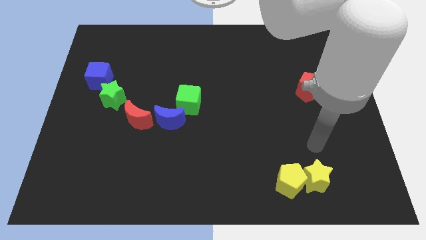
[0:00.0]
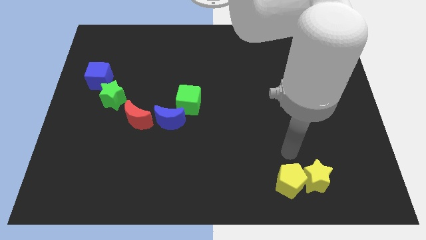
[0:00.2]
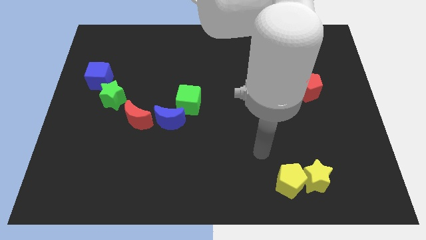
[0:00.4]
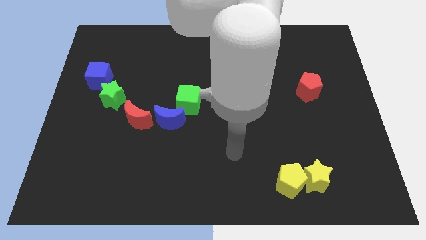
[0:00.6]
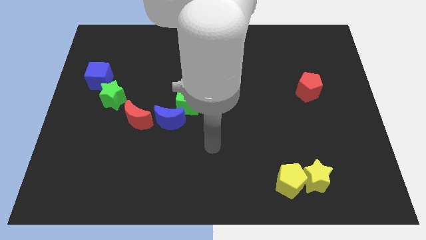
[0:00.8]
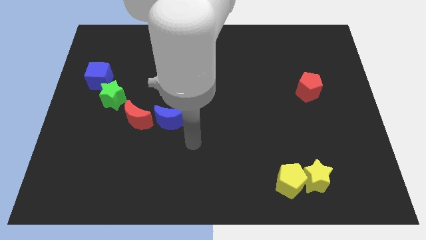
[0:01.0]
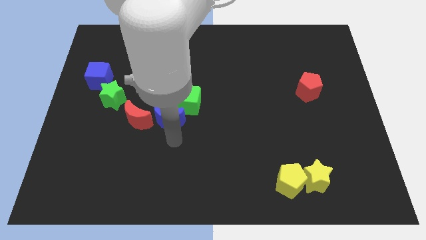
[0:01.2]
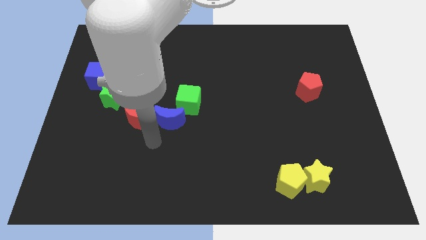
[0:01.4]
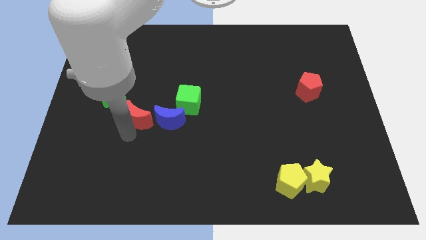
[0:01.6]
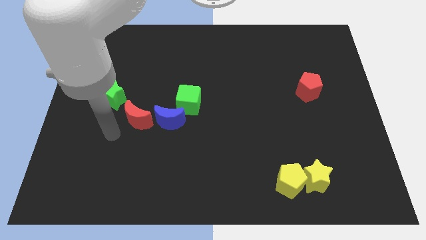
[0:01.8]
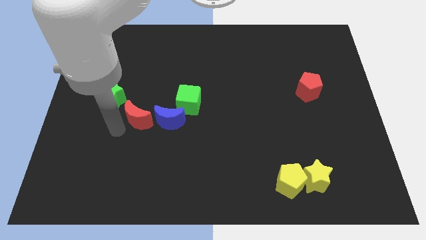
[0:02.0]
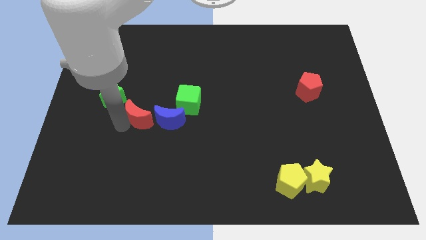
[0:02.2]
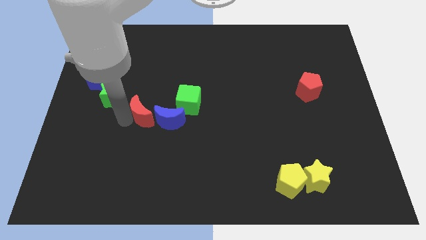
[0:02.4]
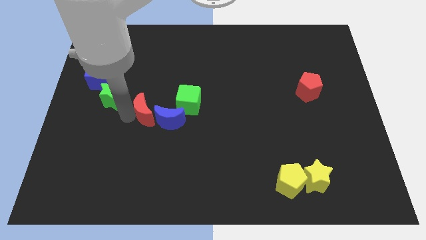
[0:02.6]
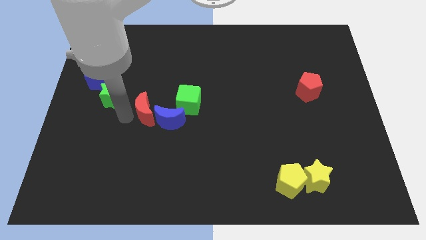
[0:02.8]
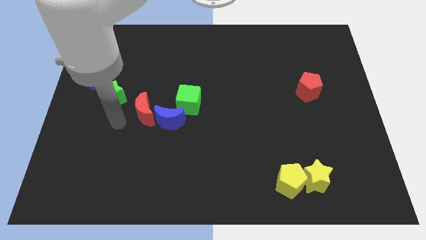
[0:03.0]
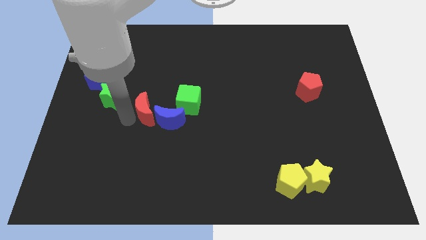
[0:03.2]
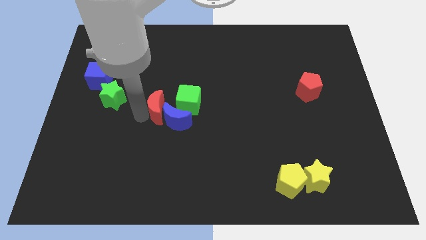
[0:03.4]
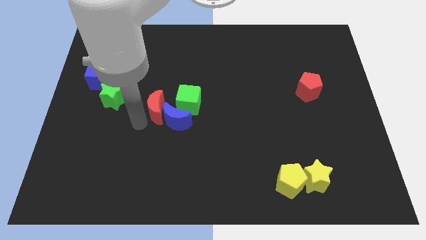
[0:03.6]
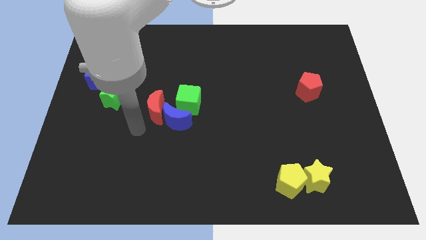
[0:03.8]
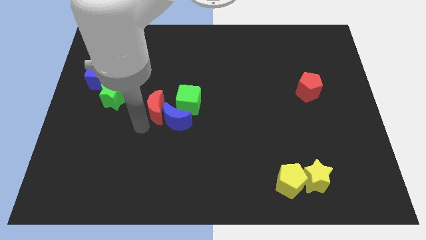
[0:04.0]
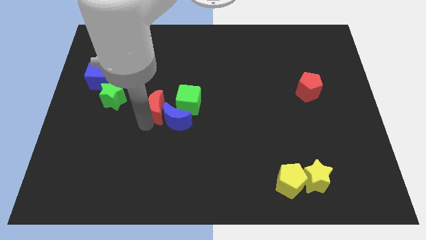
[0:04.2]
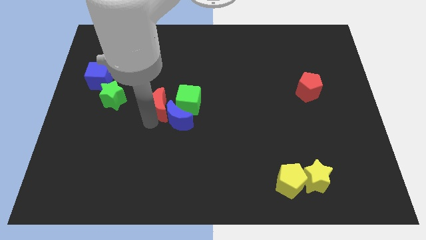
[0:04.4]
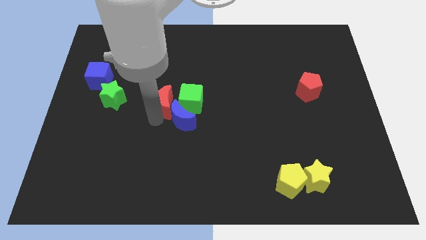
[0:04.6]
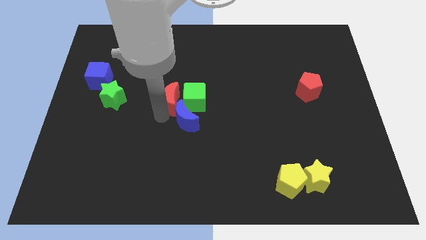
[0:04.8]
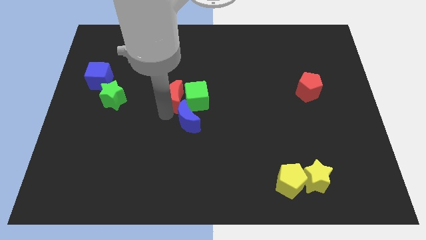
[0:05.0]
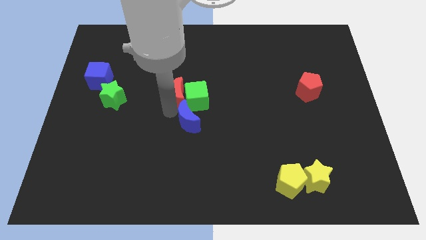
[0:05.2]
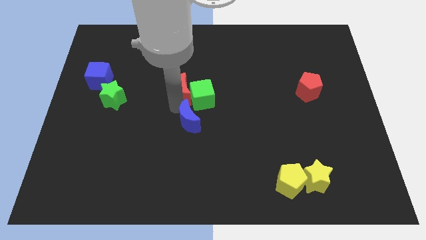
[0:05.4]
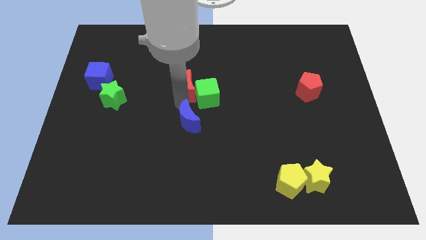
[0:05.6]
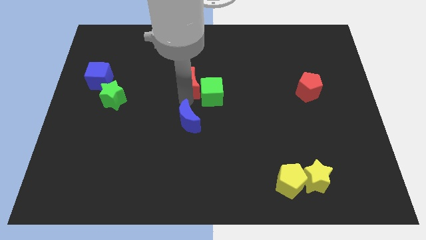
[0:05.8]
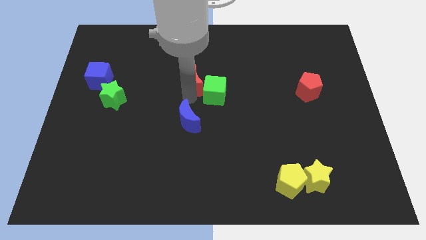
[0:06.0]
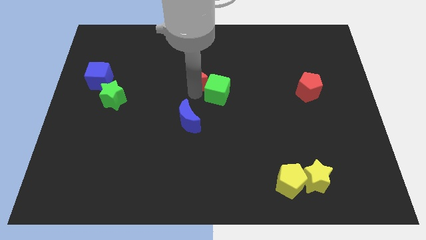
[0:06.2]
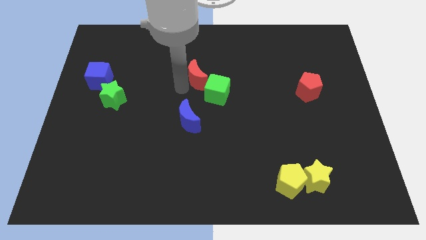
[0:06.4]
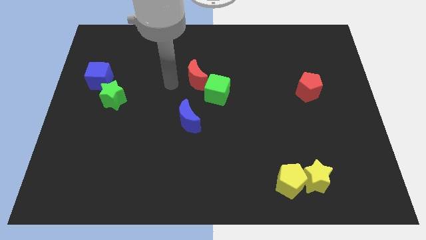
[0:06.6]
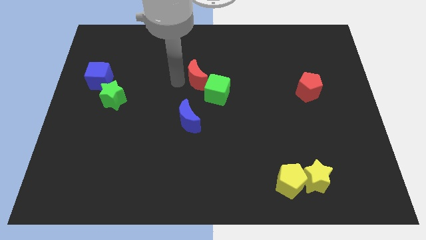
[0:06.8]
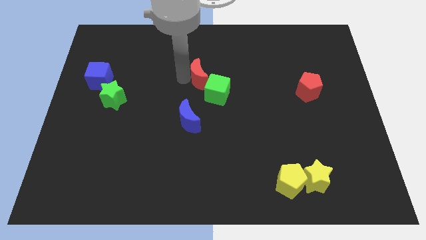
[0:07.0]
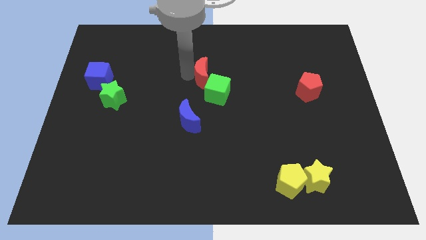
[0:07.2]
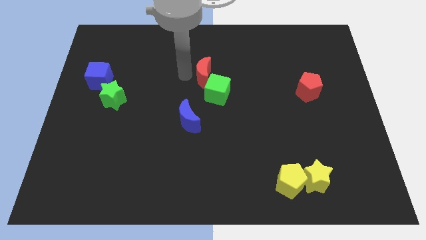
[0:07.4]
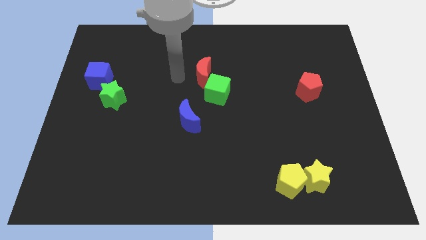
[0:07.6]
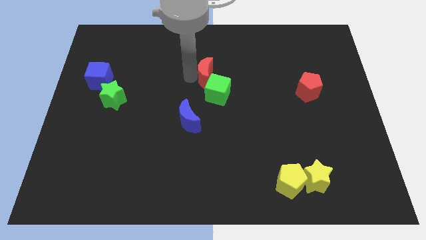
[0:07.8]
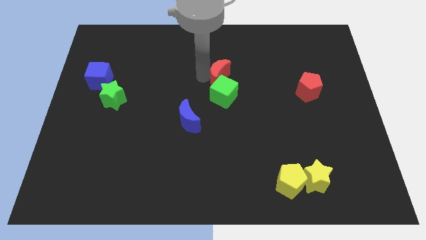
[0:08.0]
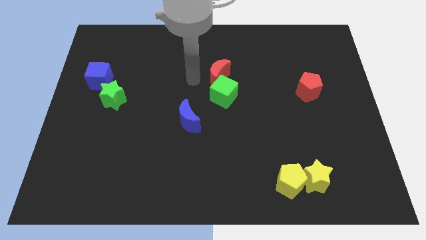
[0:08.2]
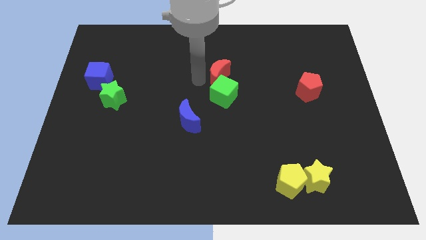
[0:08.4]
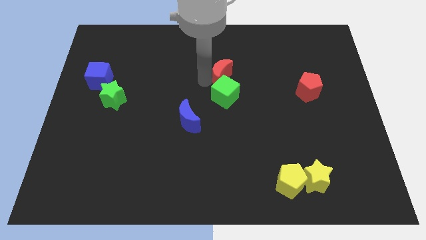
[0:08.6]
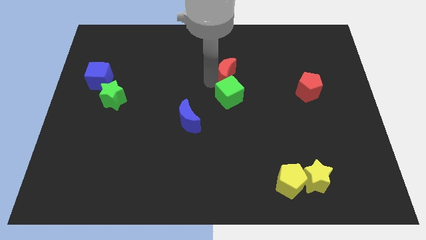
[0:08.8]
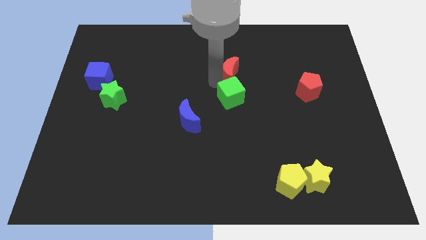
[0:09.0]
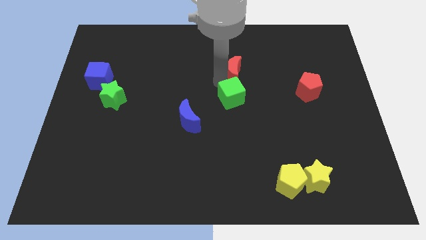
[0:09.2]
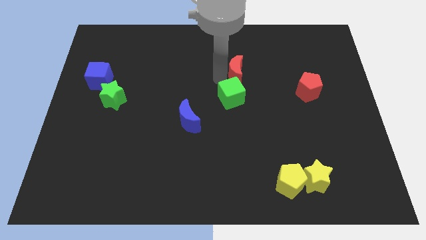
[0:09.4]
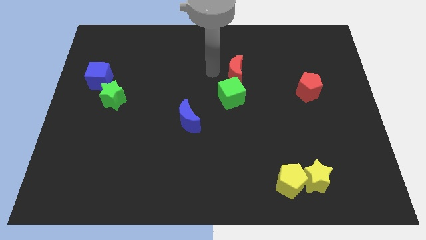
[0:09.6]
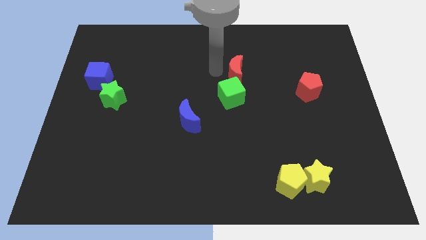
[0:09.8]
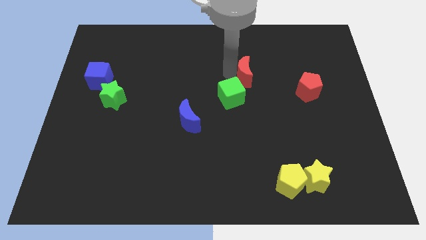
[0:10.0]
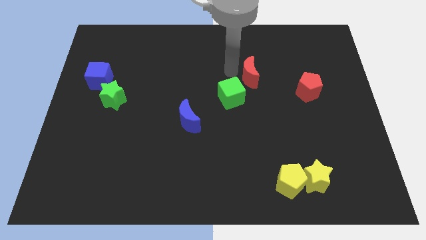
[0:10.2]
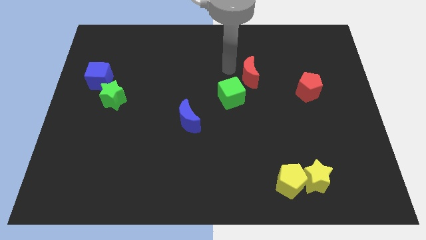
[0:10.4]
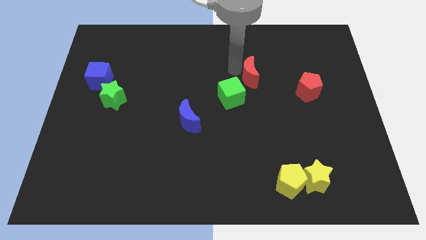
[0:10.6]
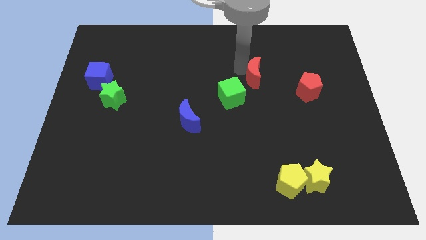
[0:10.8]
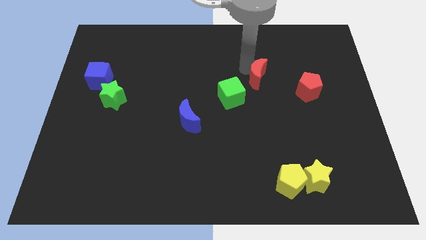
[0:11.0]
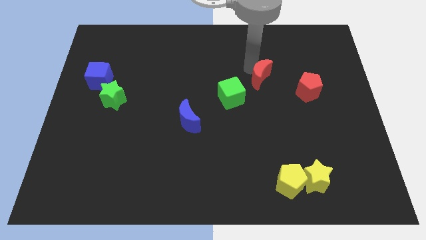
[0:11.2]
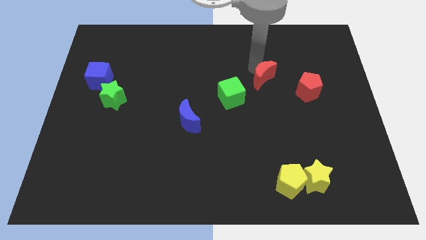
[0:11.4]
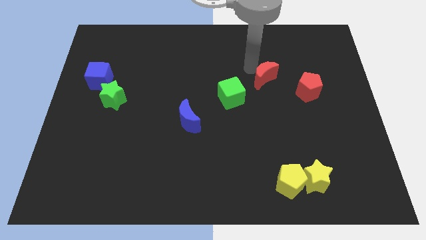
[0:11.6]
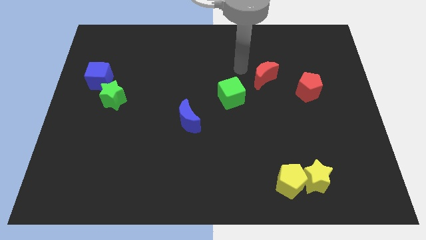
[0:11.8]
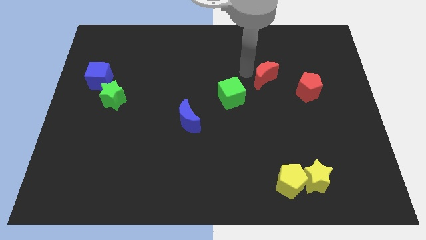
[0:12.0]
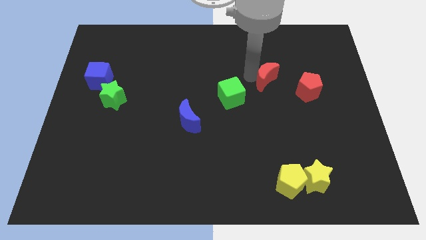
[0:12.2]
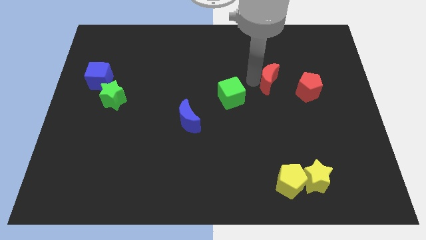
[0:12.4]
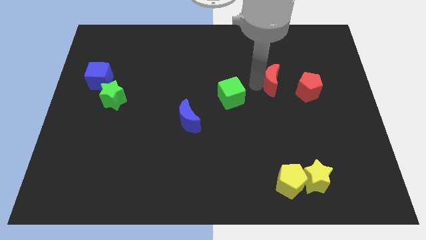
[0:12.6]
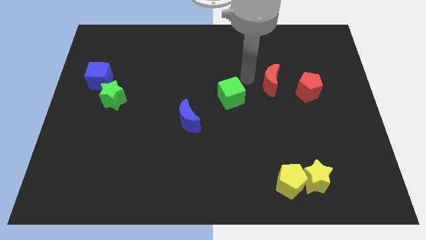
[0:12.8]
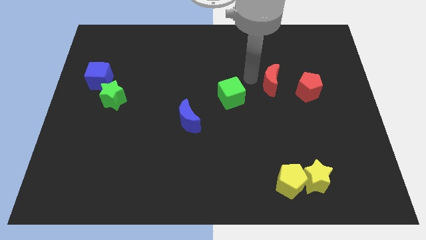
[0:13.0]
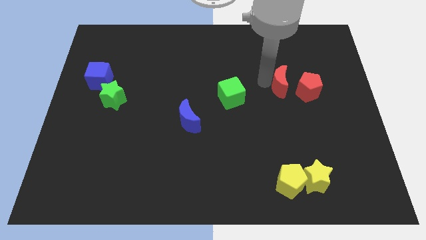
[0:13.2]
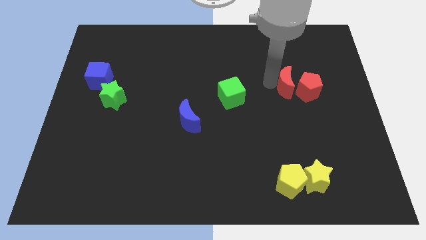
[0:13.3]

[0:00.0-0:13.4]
move the red moon towards the red pentagon

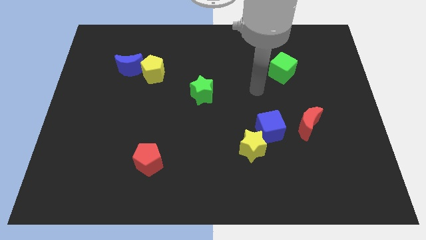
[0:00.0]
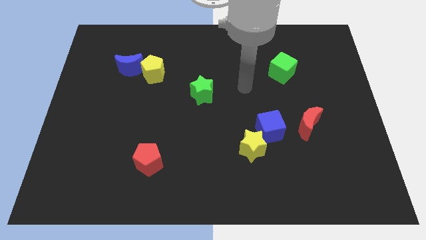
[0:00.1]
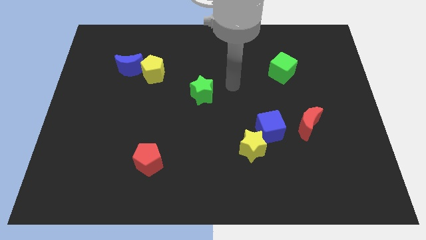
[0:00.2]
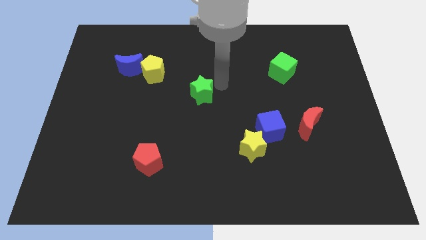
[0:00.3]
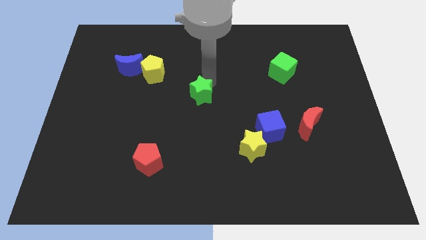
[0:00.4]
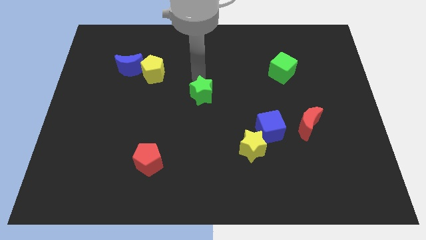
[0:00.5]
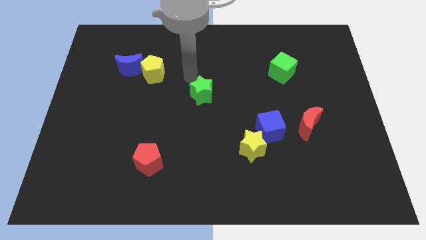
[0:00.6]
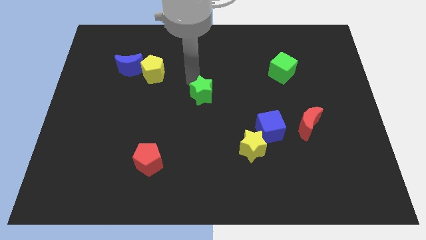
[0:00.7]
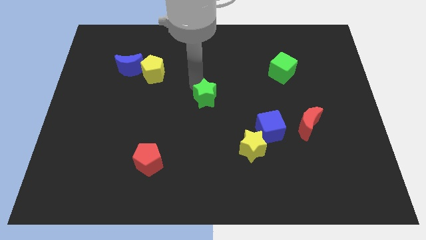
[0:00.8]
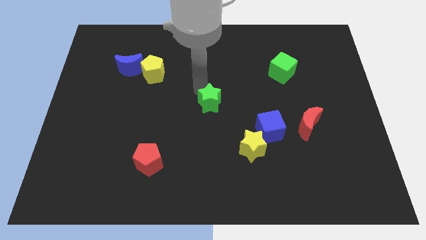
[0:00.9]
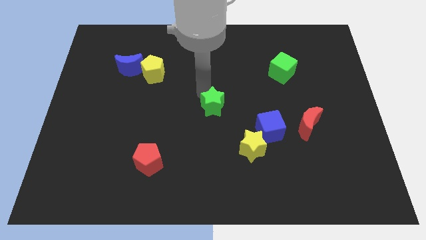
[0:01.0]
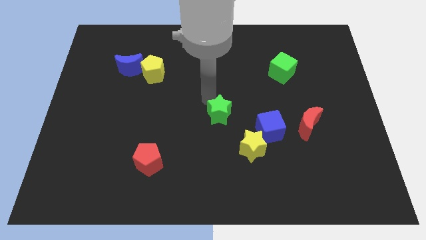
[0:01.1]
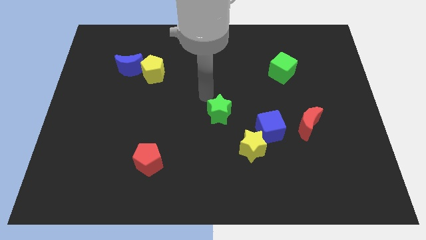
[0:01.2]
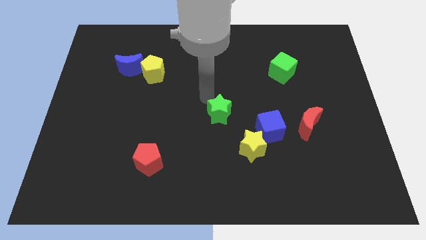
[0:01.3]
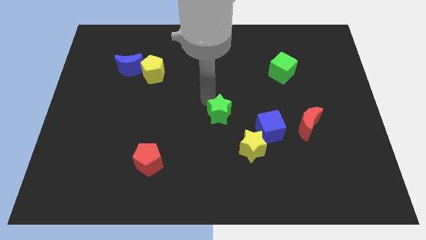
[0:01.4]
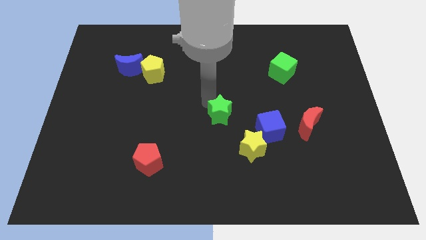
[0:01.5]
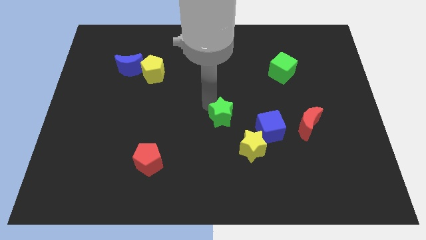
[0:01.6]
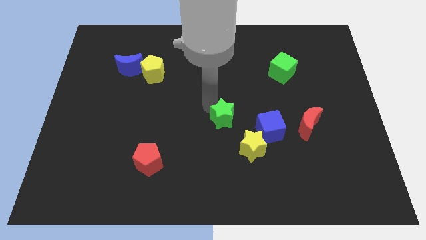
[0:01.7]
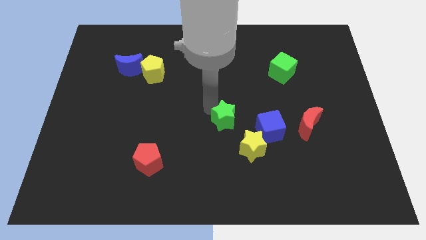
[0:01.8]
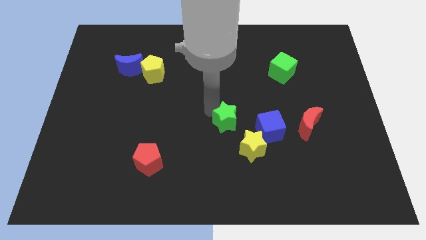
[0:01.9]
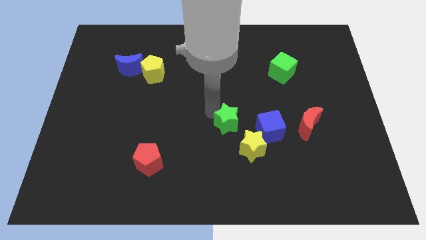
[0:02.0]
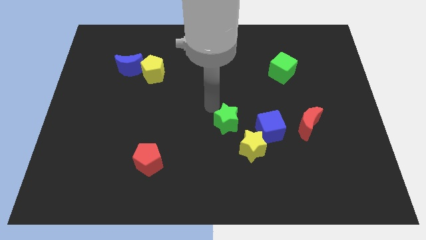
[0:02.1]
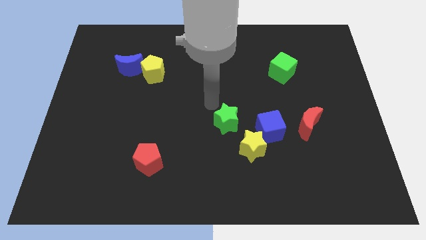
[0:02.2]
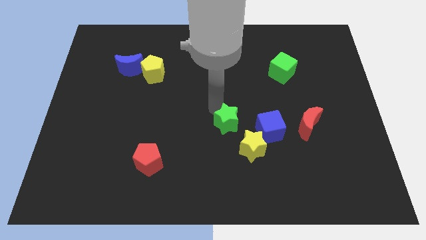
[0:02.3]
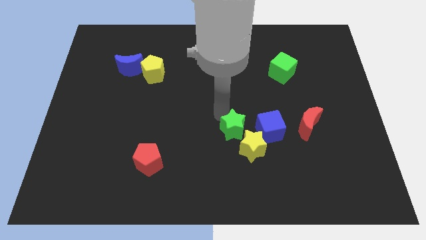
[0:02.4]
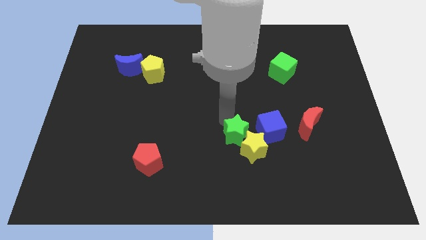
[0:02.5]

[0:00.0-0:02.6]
move the green star close to the yellow star
